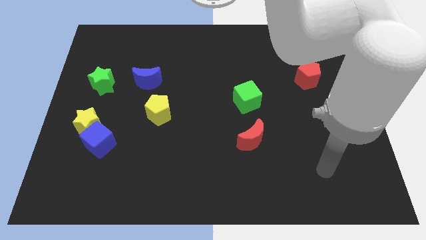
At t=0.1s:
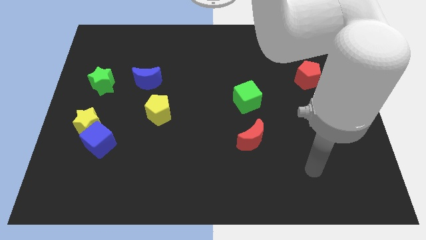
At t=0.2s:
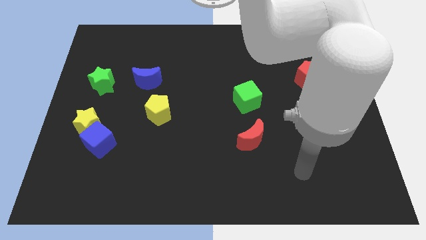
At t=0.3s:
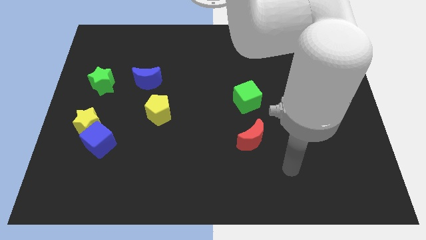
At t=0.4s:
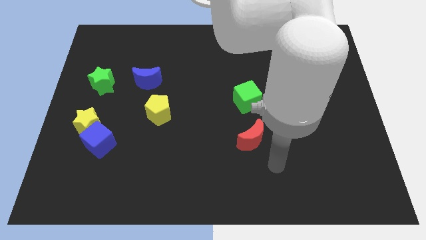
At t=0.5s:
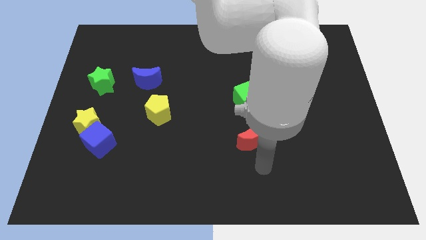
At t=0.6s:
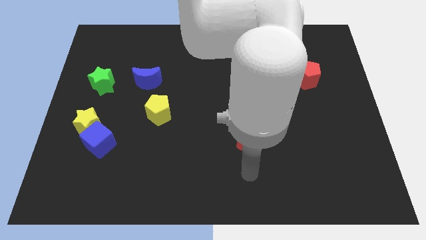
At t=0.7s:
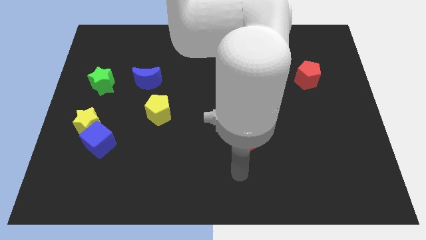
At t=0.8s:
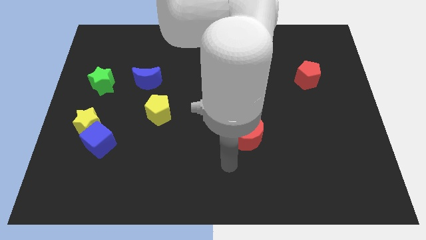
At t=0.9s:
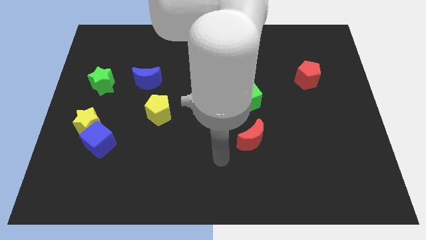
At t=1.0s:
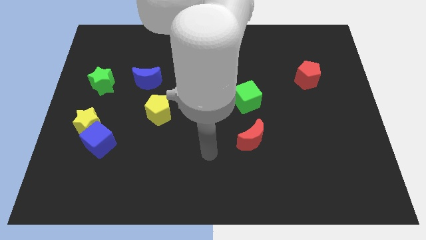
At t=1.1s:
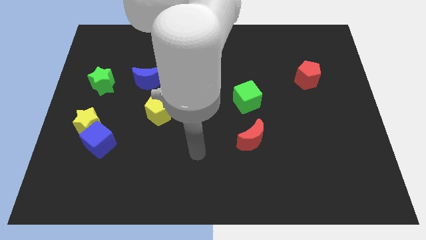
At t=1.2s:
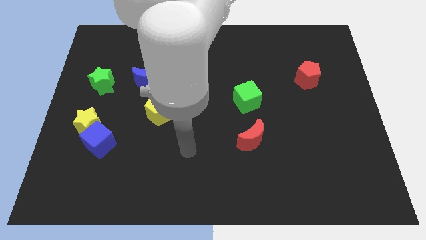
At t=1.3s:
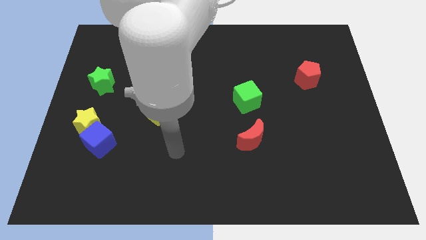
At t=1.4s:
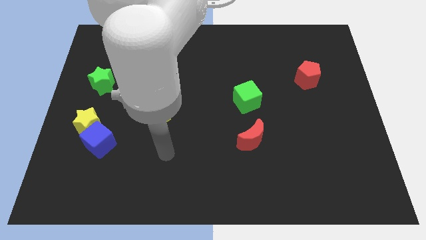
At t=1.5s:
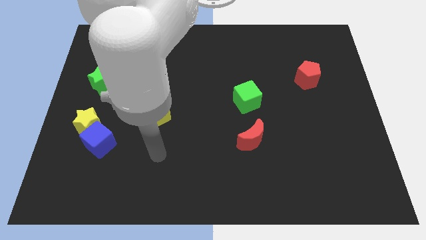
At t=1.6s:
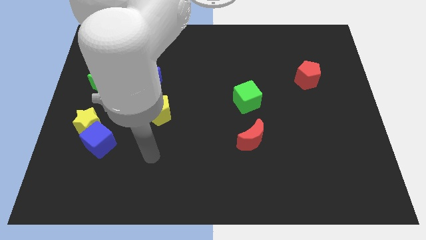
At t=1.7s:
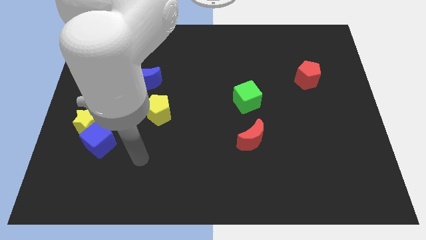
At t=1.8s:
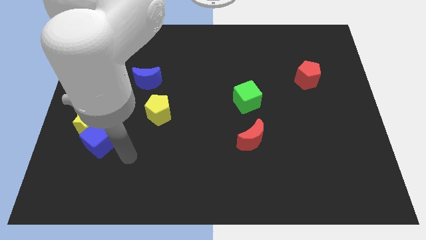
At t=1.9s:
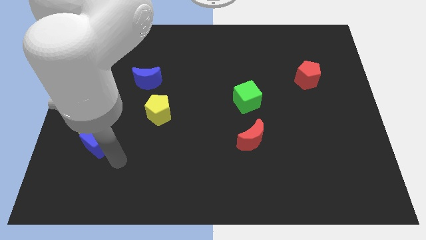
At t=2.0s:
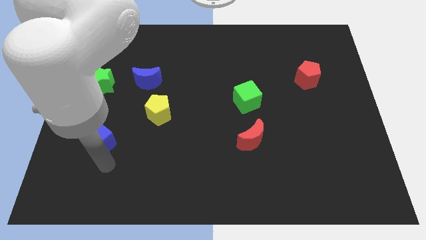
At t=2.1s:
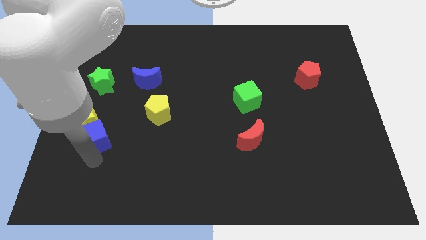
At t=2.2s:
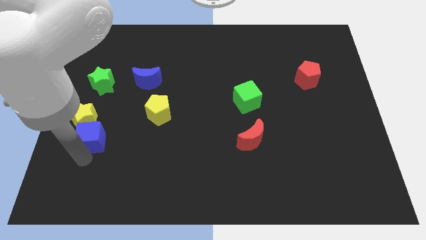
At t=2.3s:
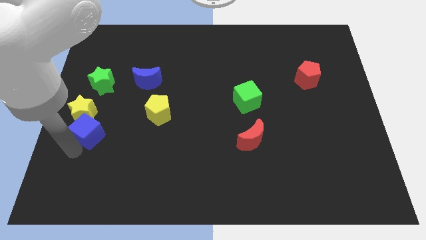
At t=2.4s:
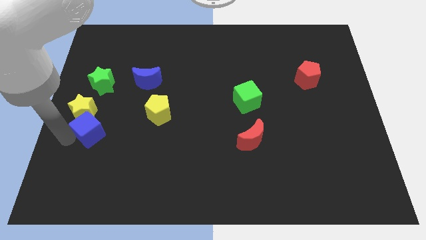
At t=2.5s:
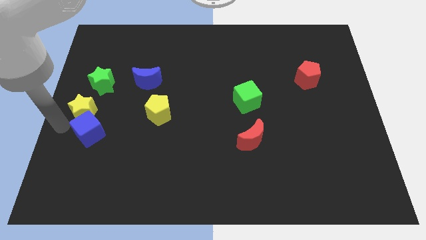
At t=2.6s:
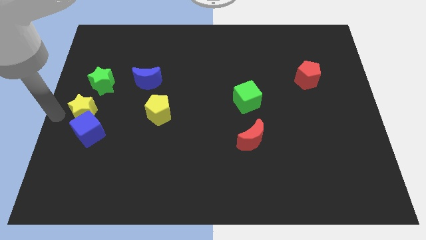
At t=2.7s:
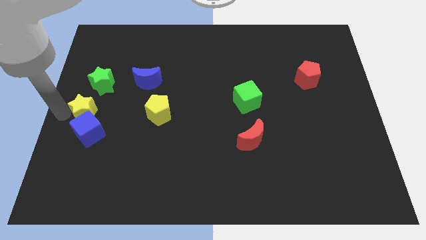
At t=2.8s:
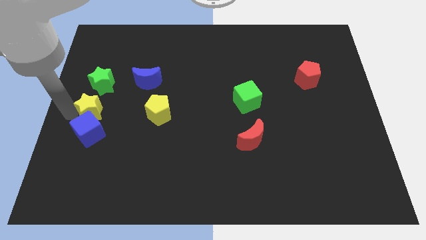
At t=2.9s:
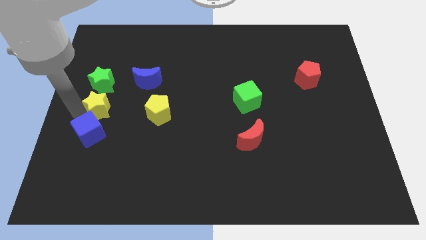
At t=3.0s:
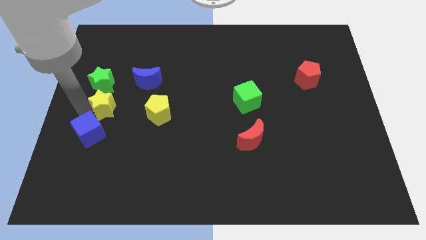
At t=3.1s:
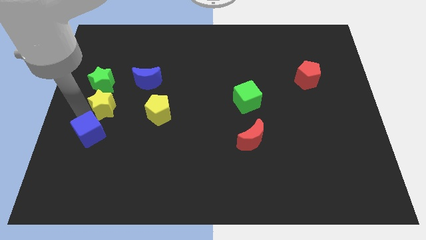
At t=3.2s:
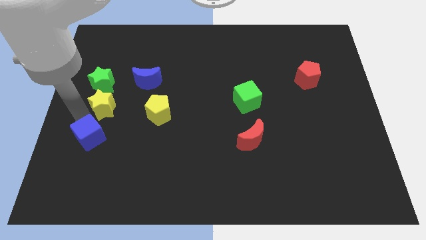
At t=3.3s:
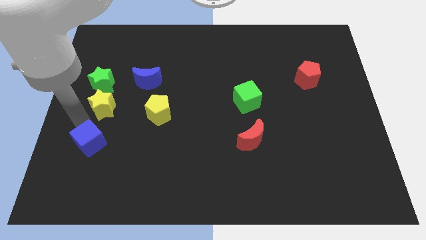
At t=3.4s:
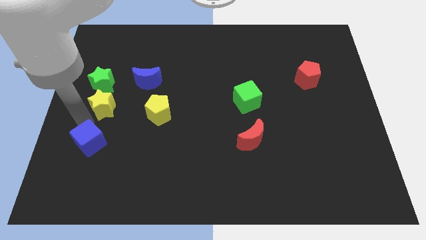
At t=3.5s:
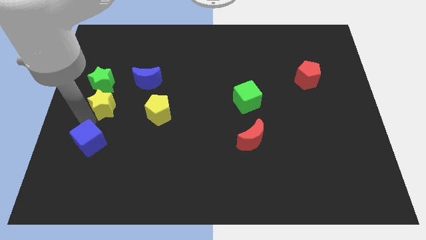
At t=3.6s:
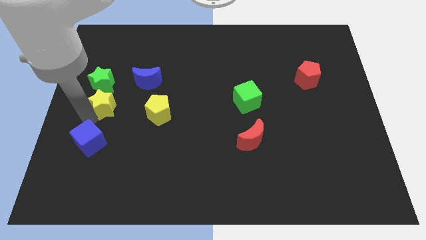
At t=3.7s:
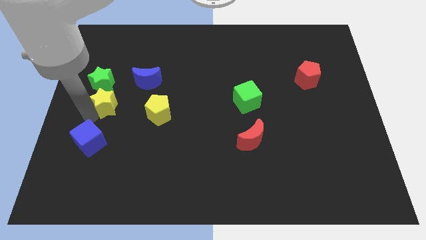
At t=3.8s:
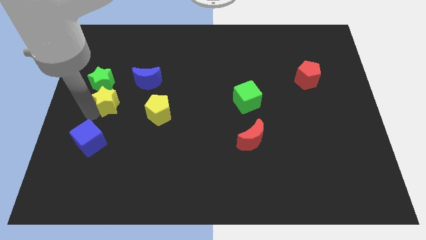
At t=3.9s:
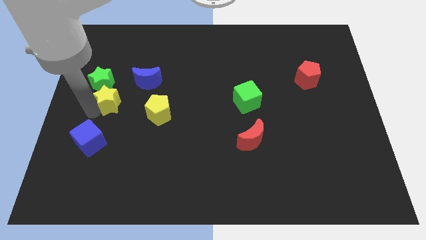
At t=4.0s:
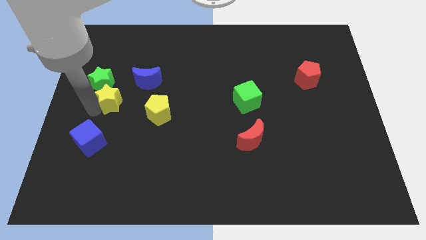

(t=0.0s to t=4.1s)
slightly slide the yellow star upwards

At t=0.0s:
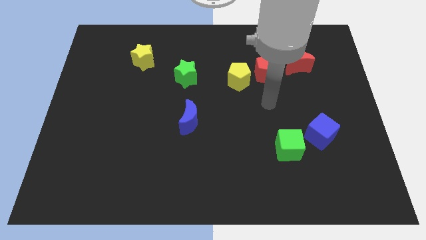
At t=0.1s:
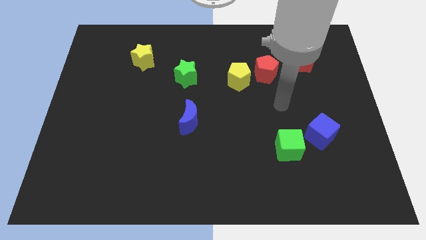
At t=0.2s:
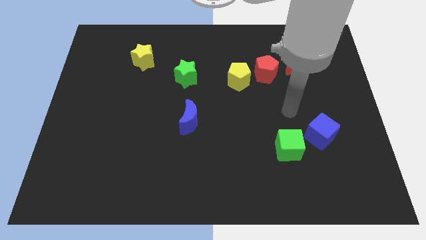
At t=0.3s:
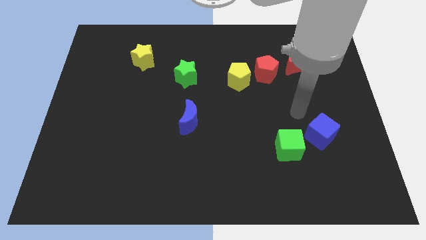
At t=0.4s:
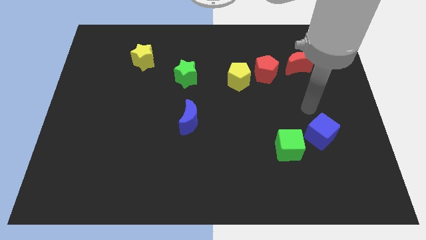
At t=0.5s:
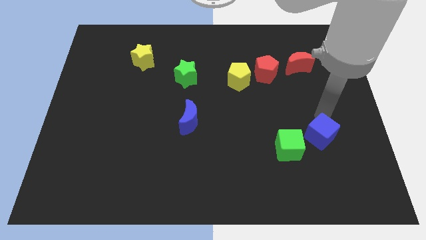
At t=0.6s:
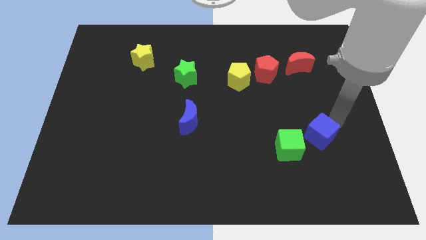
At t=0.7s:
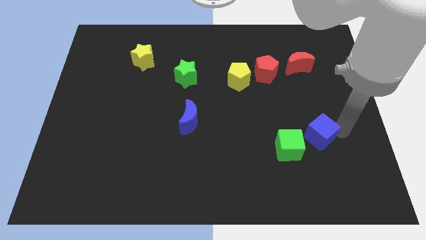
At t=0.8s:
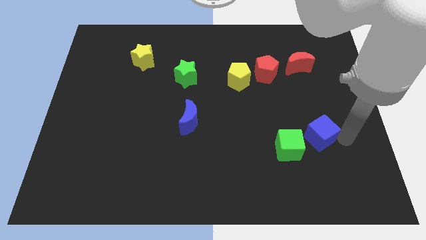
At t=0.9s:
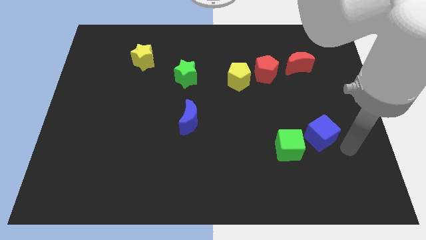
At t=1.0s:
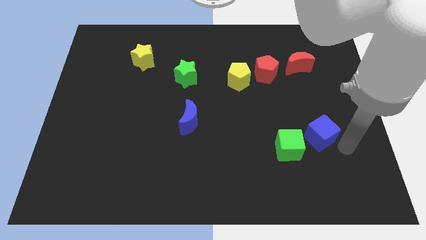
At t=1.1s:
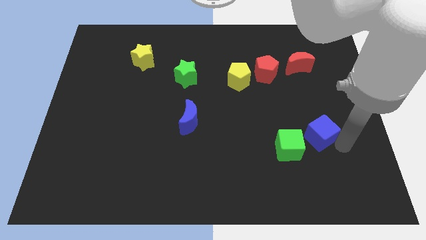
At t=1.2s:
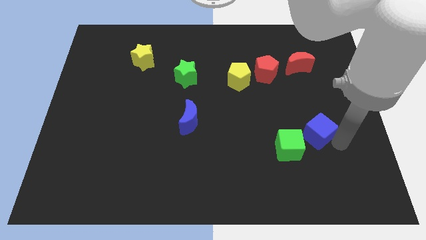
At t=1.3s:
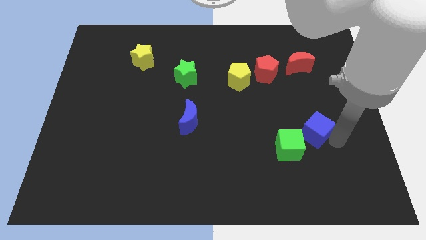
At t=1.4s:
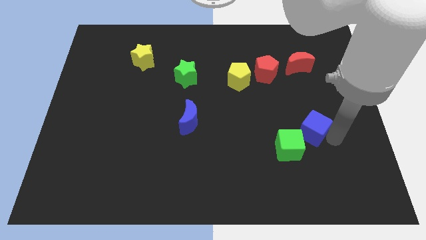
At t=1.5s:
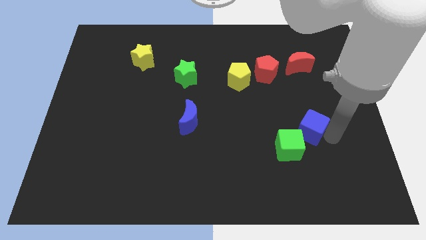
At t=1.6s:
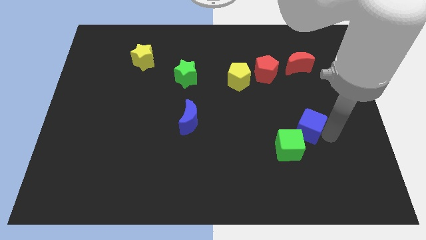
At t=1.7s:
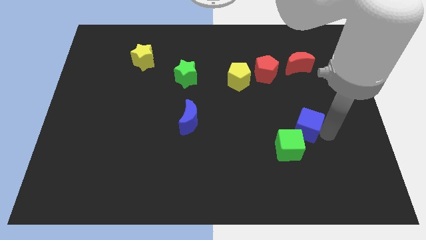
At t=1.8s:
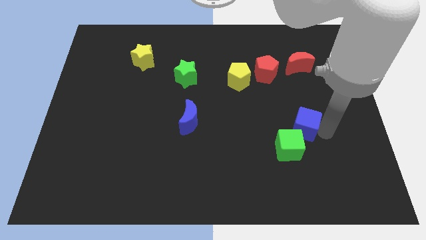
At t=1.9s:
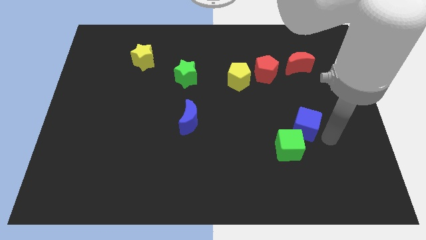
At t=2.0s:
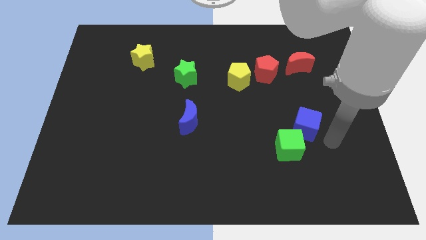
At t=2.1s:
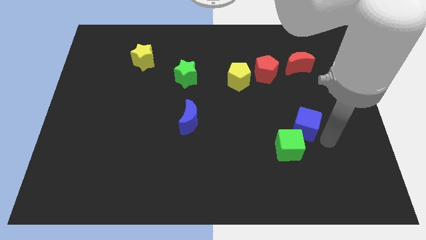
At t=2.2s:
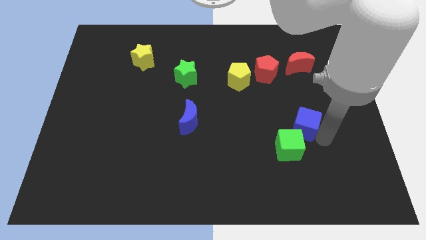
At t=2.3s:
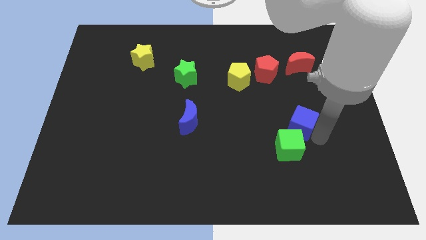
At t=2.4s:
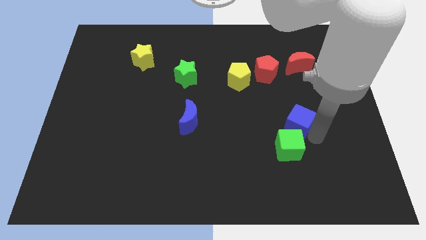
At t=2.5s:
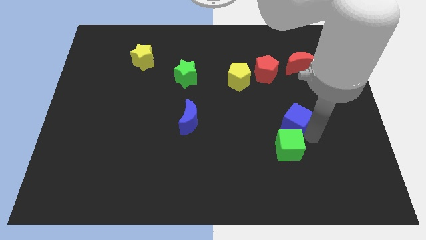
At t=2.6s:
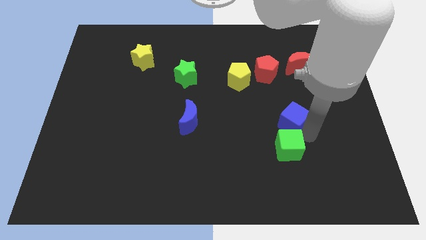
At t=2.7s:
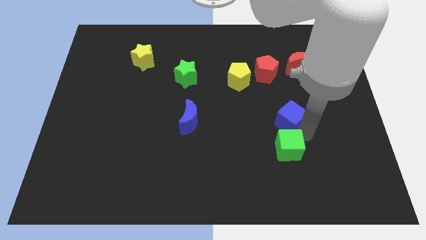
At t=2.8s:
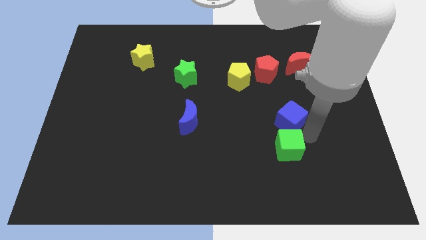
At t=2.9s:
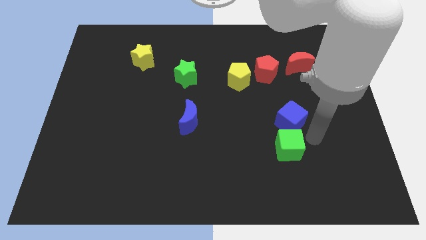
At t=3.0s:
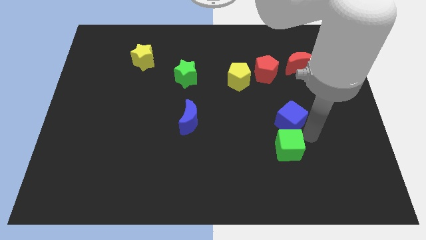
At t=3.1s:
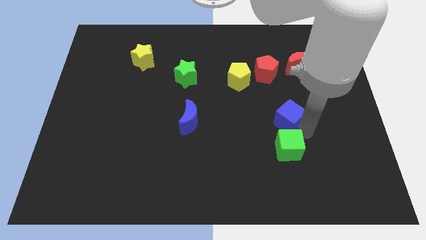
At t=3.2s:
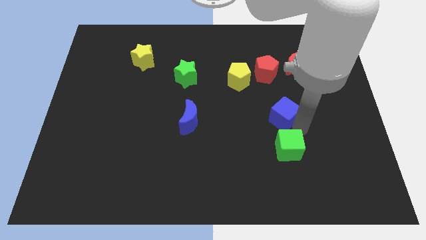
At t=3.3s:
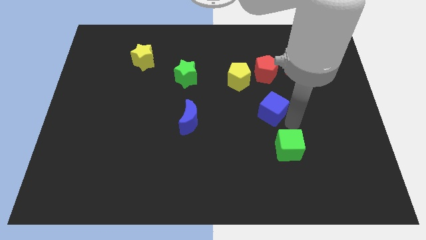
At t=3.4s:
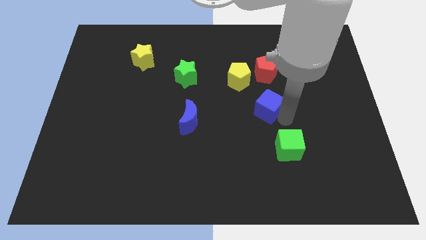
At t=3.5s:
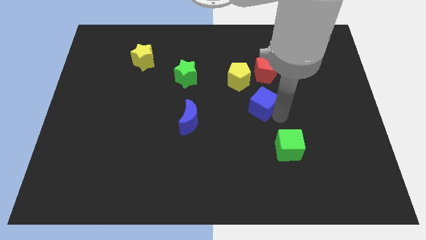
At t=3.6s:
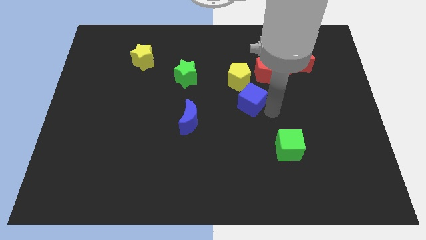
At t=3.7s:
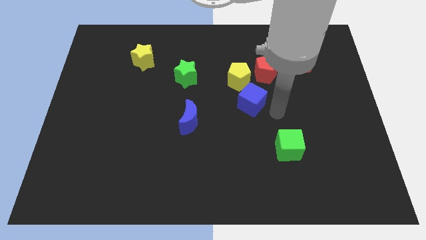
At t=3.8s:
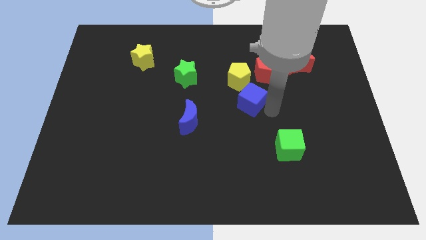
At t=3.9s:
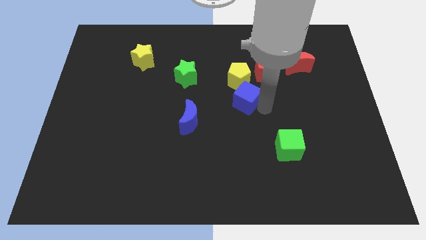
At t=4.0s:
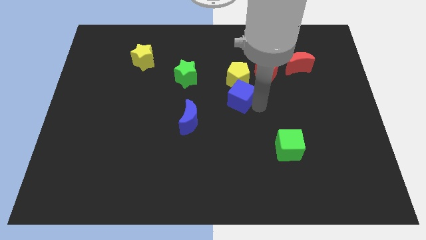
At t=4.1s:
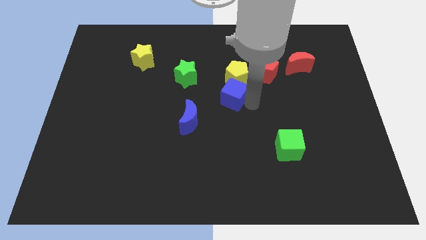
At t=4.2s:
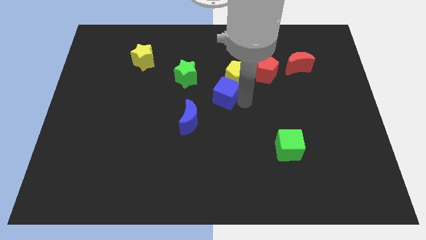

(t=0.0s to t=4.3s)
push the blue cube diagonally upwards and left

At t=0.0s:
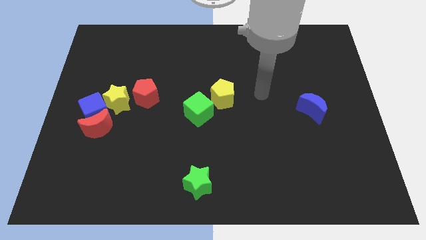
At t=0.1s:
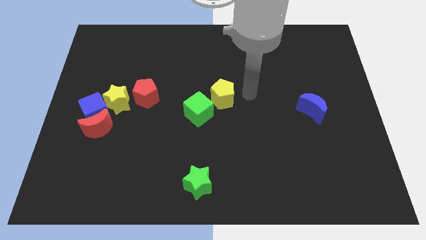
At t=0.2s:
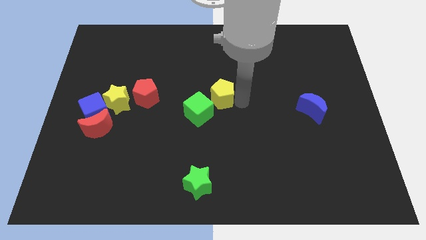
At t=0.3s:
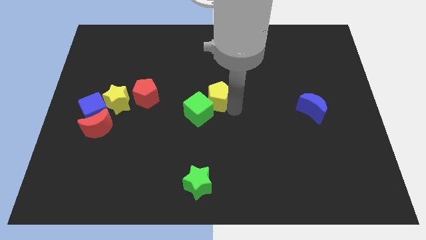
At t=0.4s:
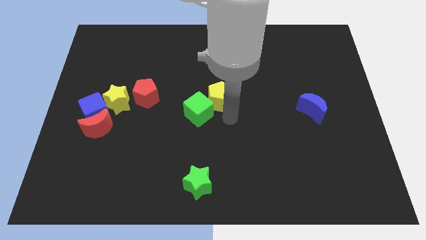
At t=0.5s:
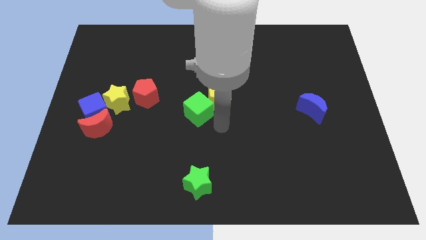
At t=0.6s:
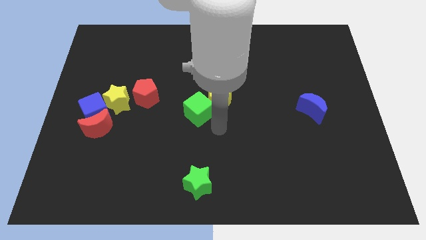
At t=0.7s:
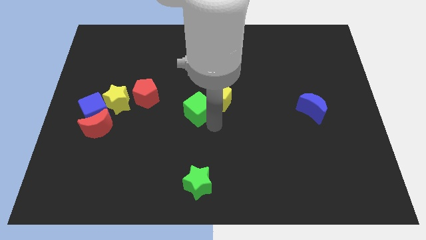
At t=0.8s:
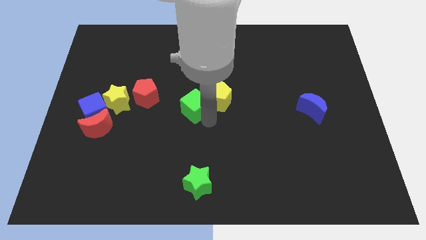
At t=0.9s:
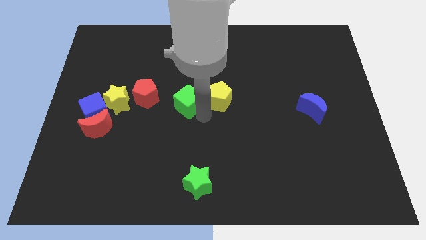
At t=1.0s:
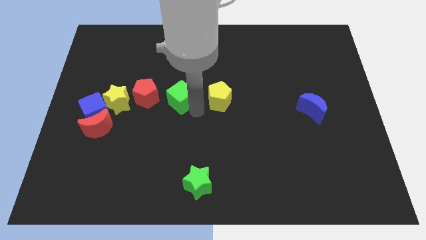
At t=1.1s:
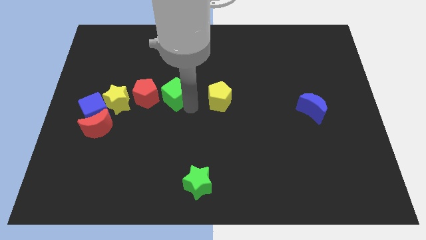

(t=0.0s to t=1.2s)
move the green cube somewhat up and then left
